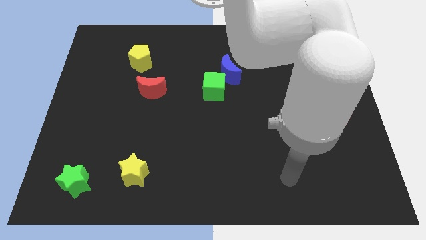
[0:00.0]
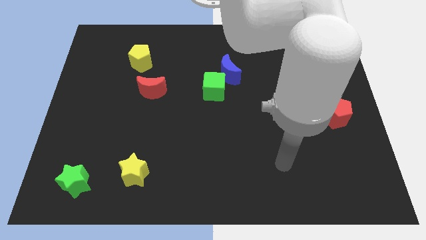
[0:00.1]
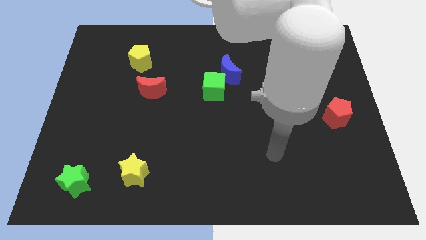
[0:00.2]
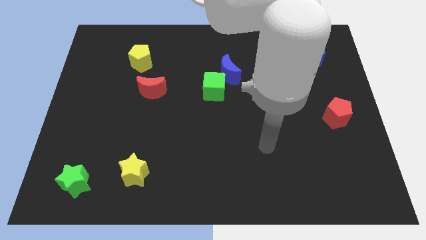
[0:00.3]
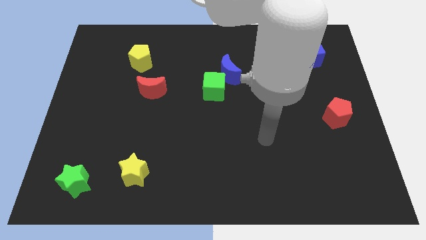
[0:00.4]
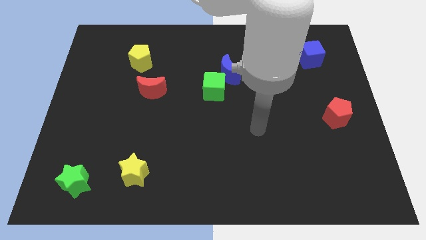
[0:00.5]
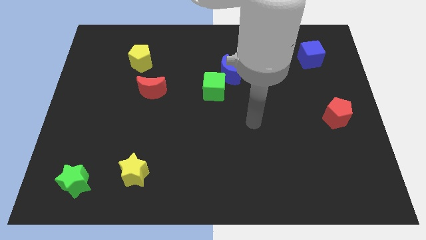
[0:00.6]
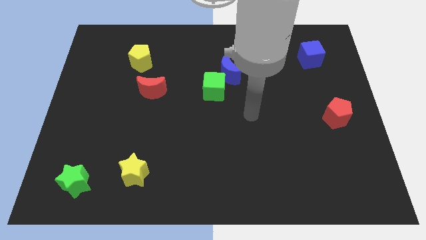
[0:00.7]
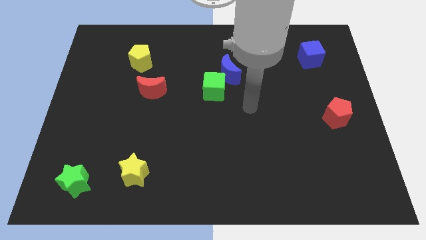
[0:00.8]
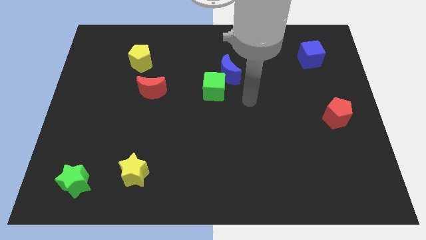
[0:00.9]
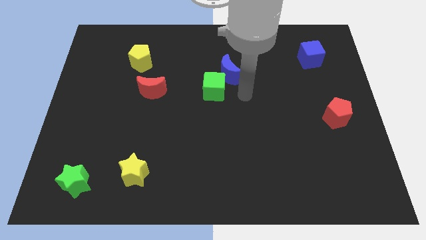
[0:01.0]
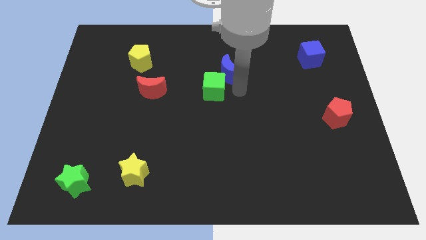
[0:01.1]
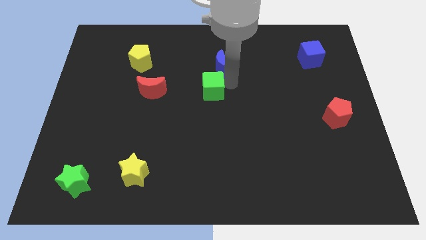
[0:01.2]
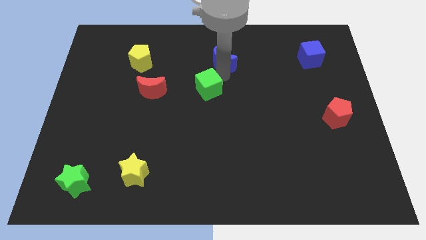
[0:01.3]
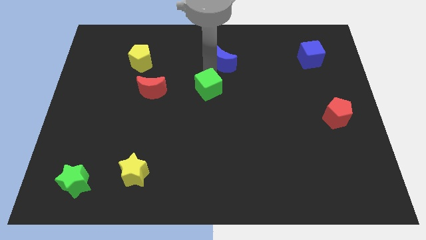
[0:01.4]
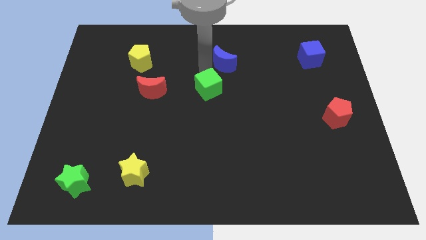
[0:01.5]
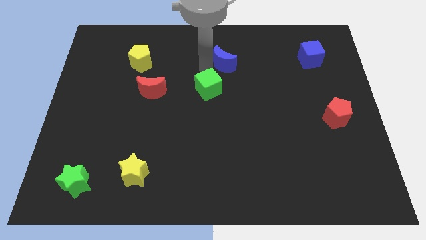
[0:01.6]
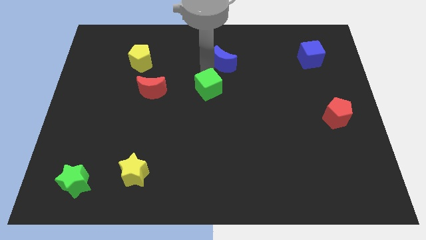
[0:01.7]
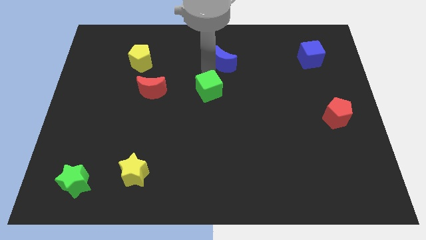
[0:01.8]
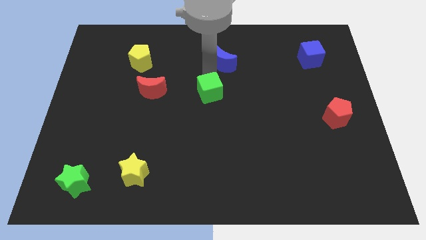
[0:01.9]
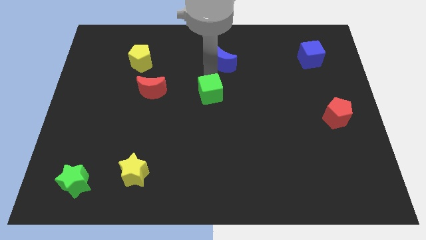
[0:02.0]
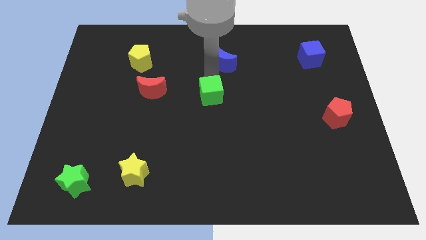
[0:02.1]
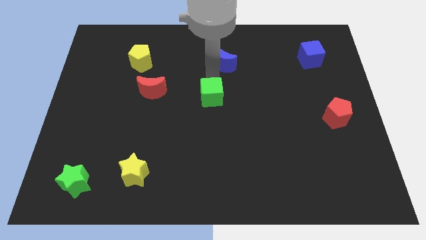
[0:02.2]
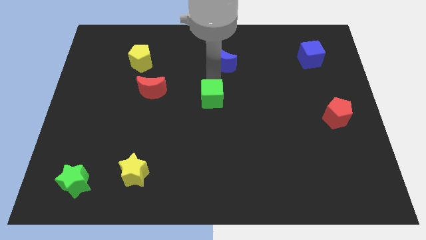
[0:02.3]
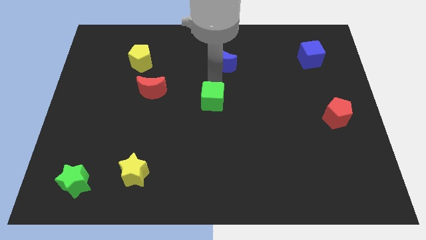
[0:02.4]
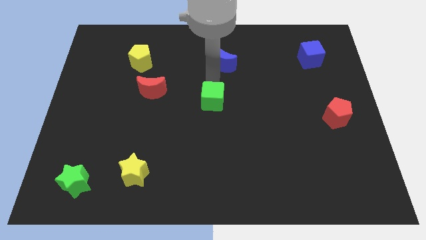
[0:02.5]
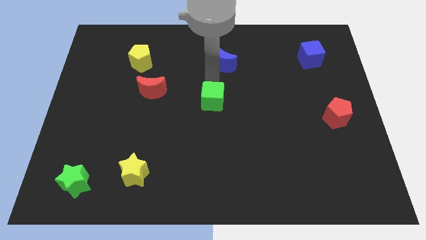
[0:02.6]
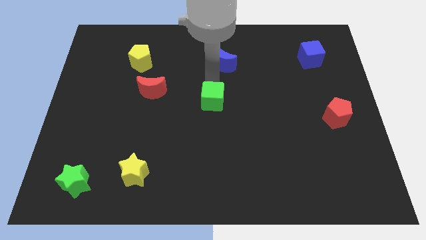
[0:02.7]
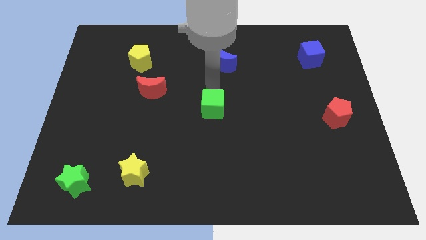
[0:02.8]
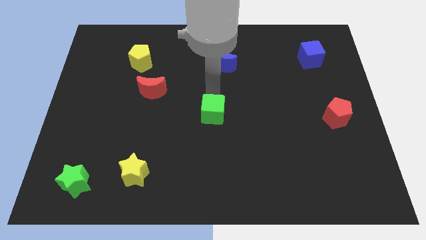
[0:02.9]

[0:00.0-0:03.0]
slightly push the green cube downwards

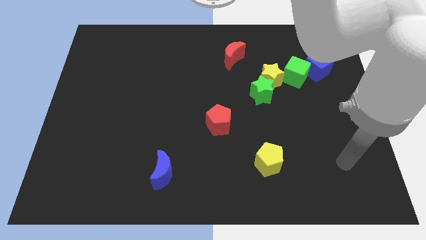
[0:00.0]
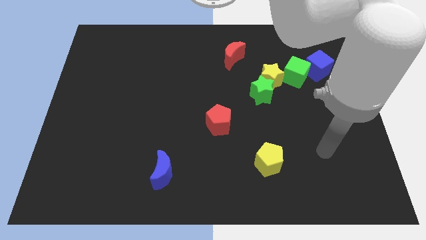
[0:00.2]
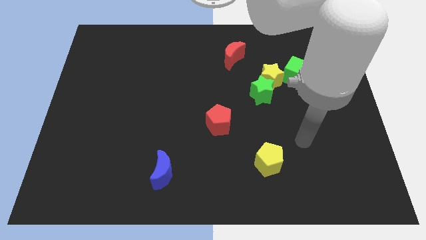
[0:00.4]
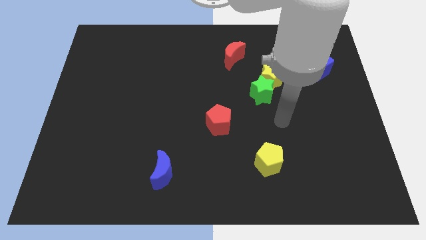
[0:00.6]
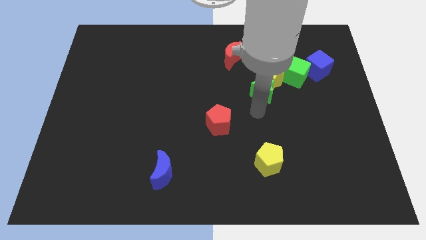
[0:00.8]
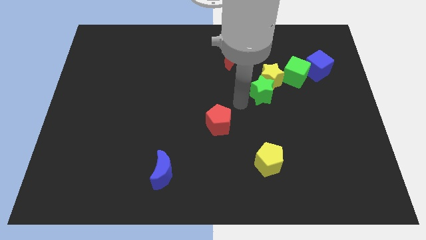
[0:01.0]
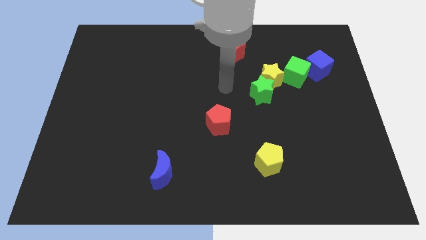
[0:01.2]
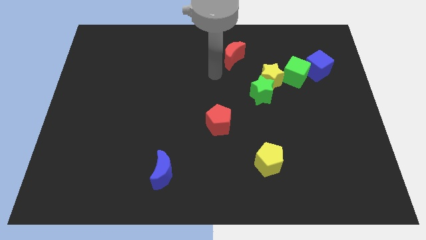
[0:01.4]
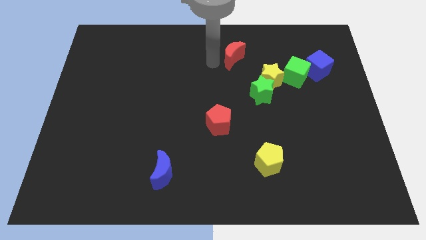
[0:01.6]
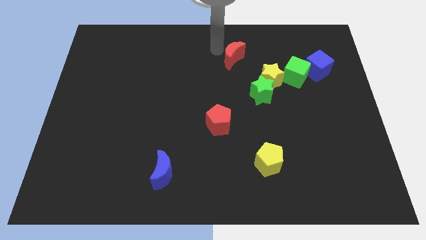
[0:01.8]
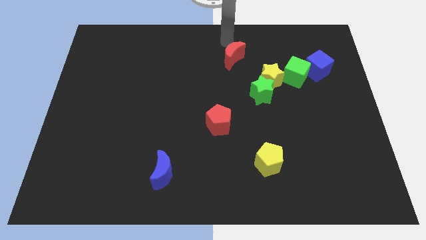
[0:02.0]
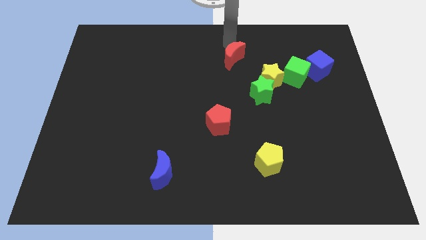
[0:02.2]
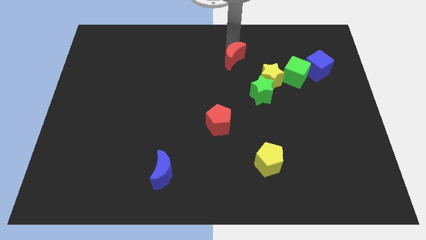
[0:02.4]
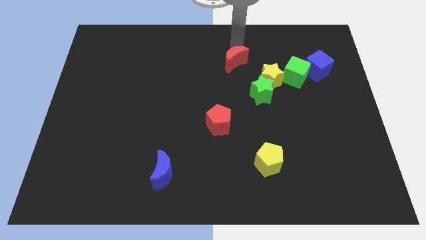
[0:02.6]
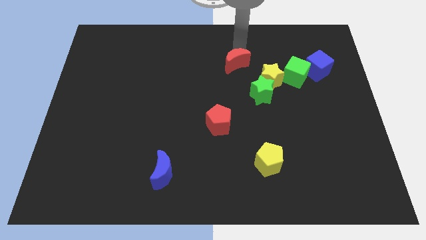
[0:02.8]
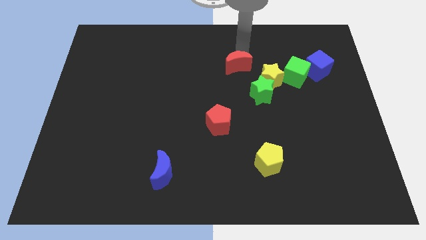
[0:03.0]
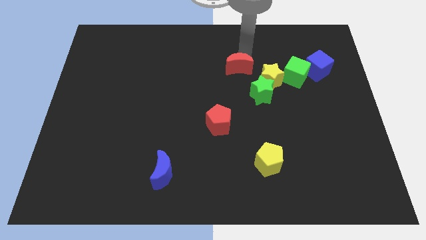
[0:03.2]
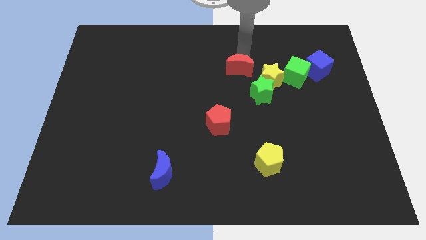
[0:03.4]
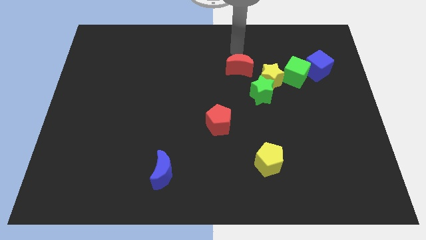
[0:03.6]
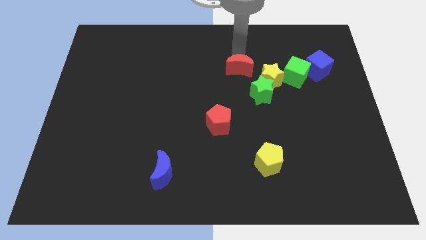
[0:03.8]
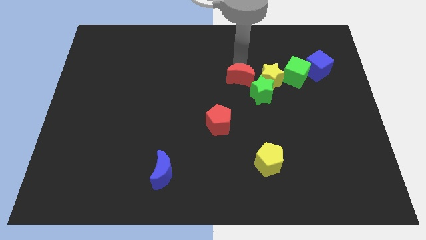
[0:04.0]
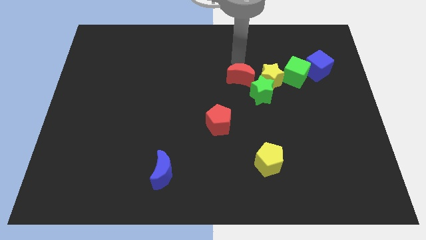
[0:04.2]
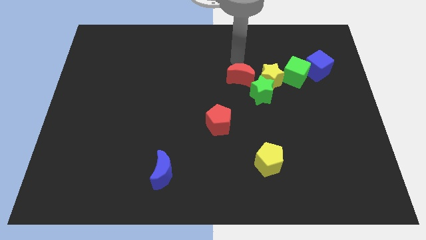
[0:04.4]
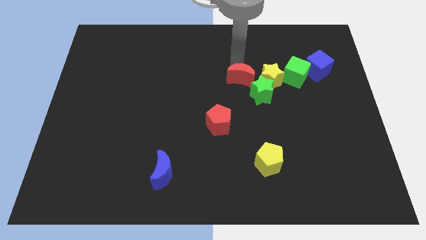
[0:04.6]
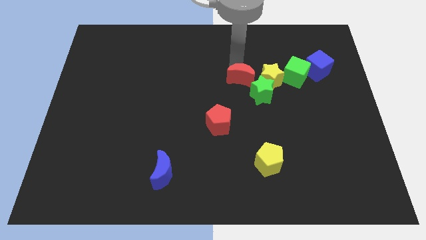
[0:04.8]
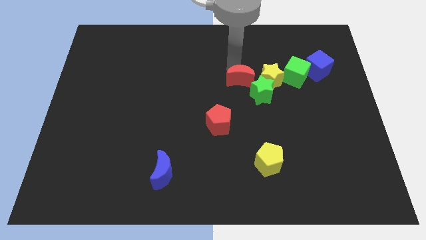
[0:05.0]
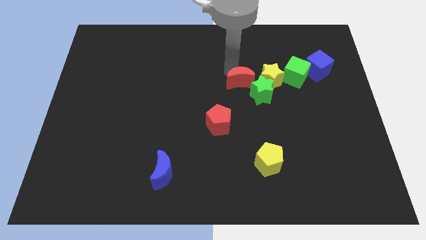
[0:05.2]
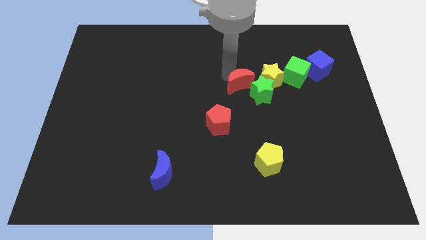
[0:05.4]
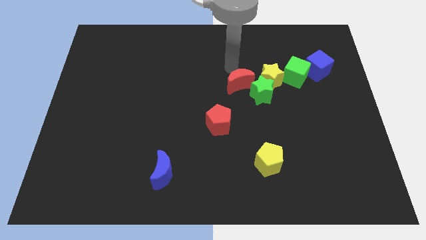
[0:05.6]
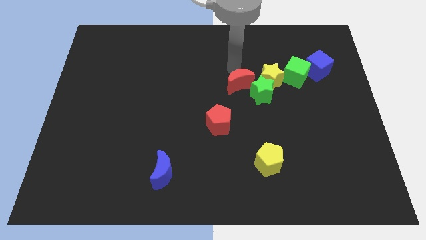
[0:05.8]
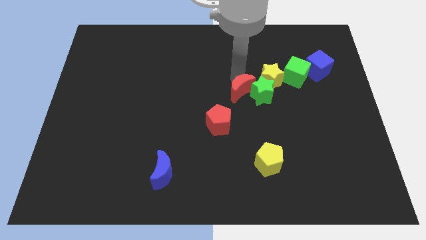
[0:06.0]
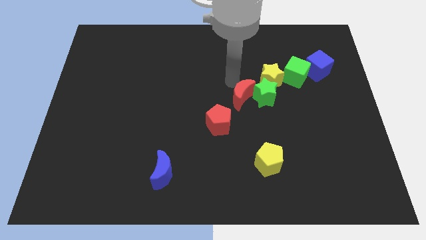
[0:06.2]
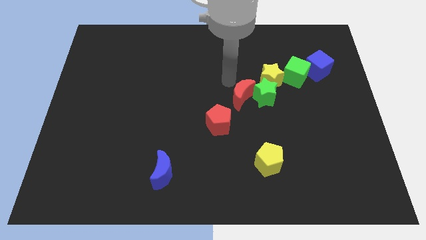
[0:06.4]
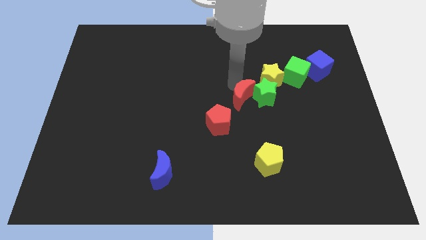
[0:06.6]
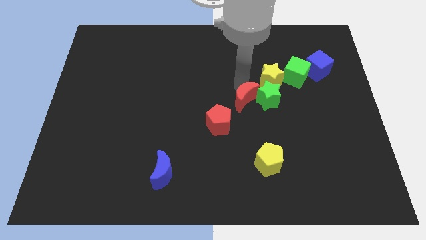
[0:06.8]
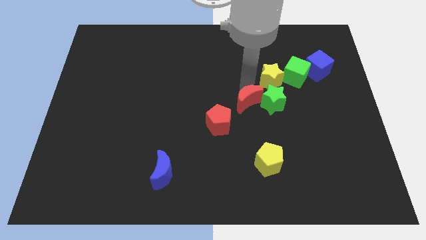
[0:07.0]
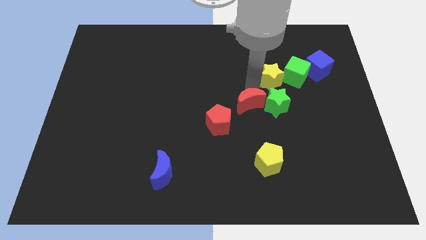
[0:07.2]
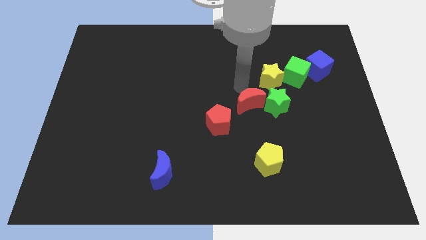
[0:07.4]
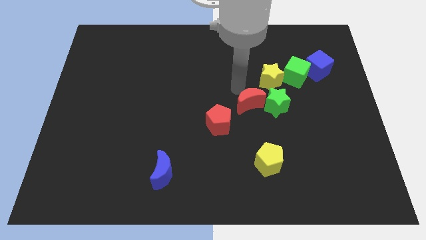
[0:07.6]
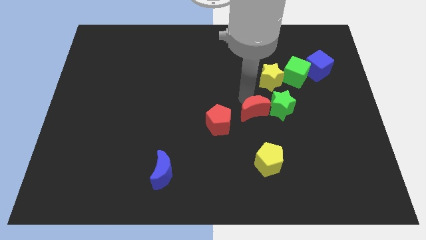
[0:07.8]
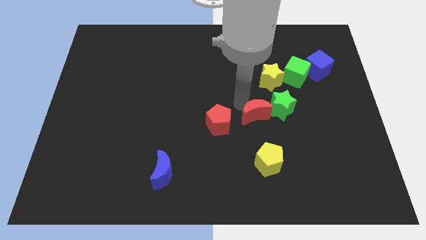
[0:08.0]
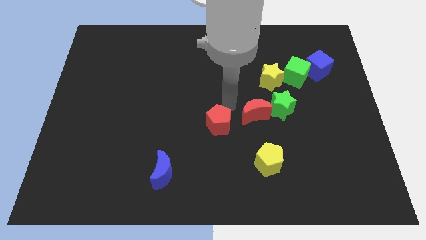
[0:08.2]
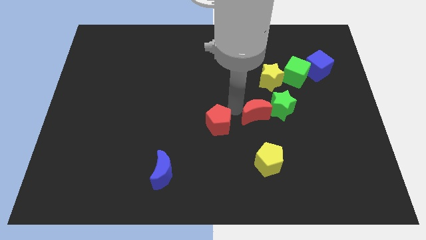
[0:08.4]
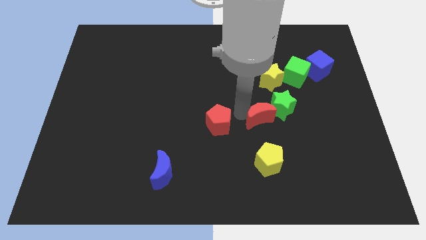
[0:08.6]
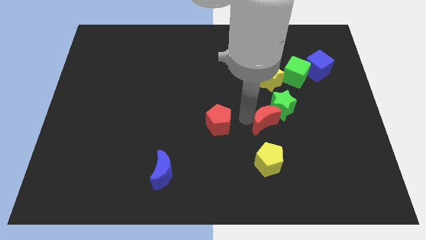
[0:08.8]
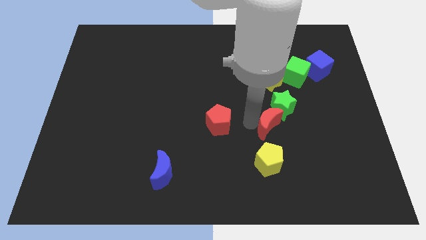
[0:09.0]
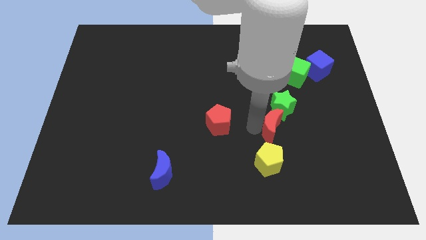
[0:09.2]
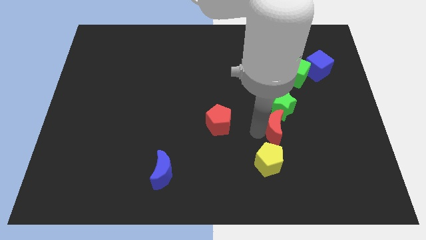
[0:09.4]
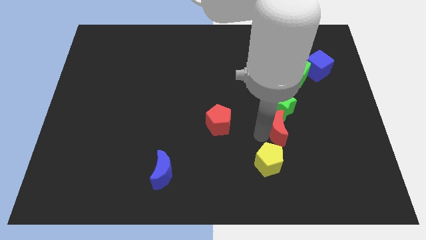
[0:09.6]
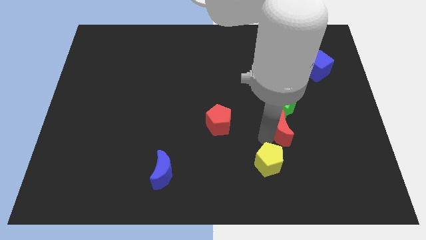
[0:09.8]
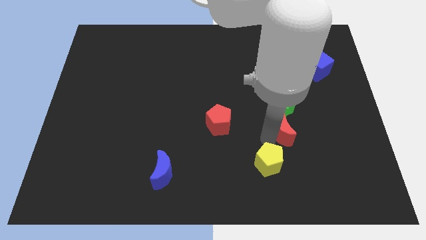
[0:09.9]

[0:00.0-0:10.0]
move the red moon downwards and then to the right
